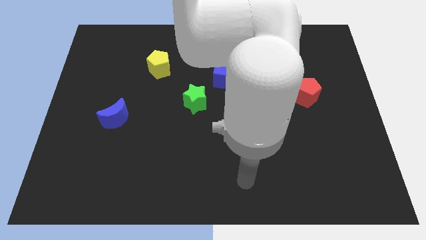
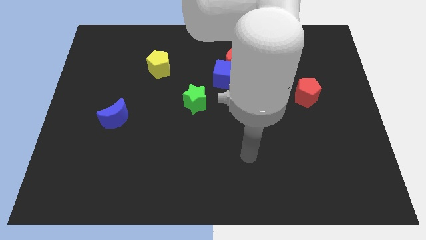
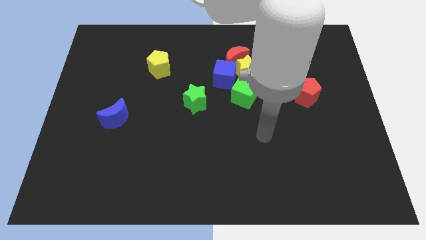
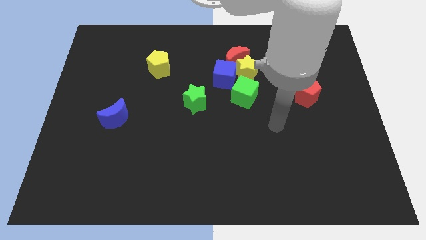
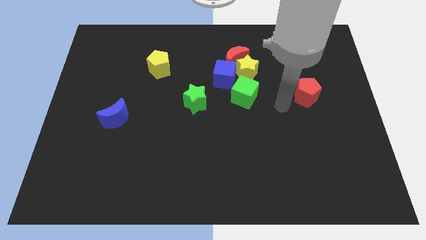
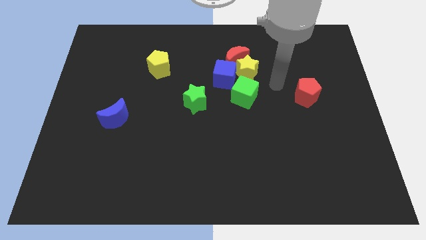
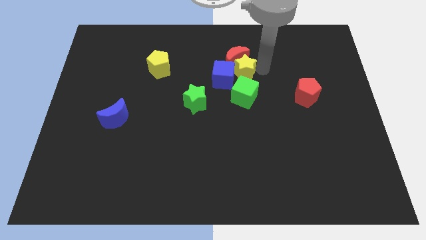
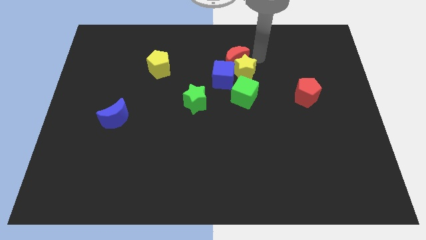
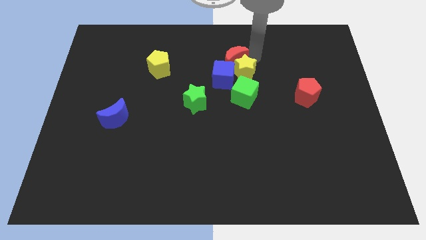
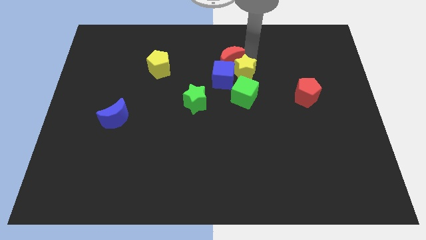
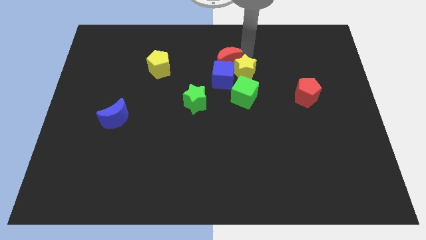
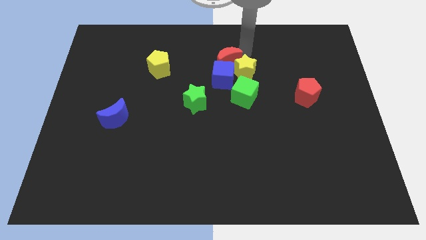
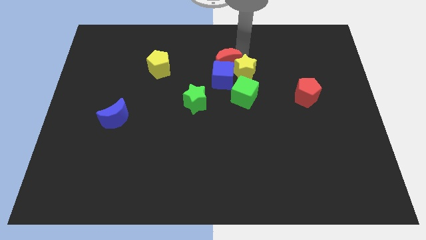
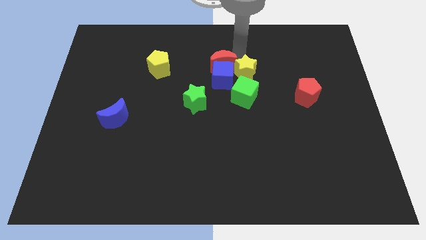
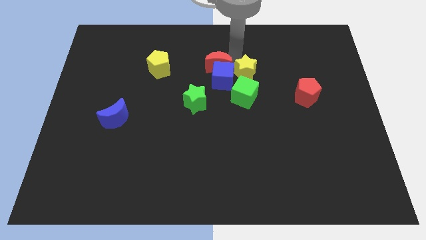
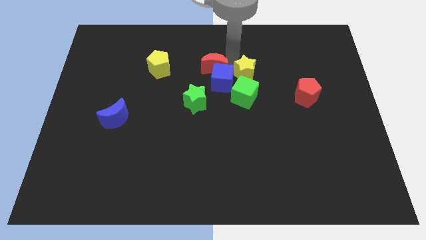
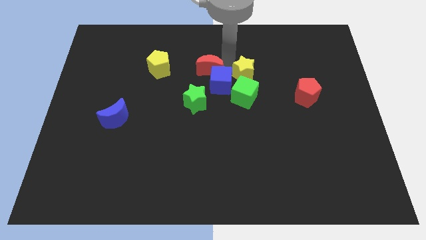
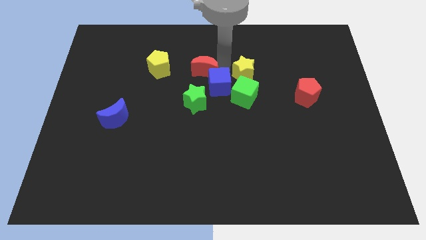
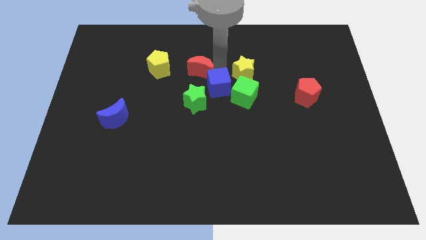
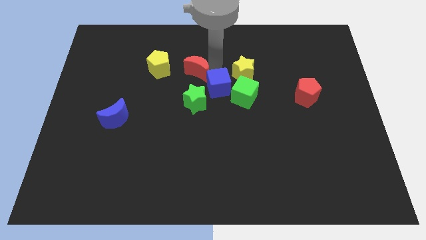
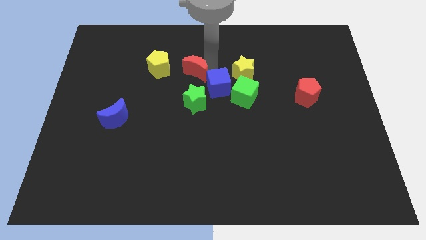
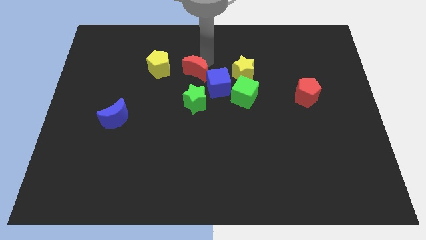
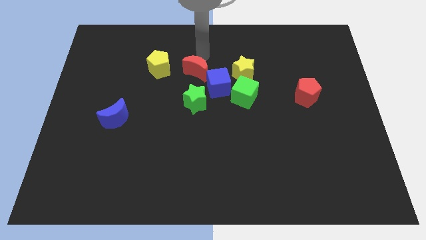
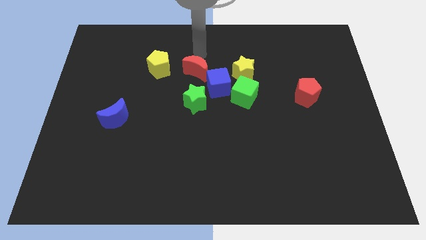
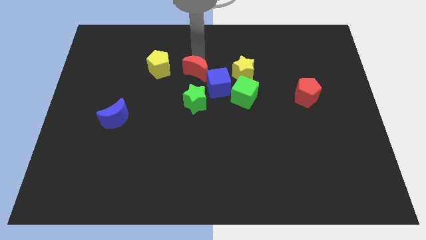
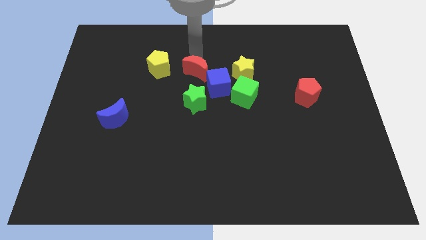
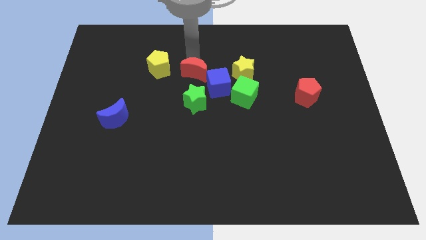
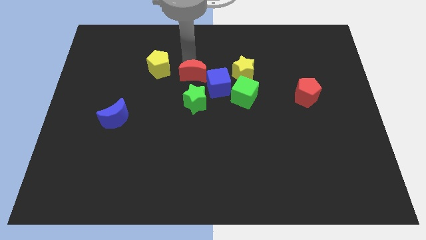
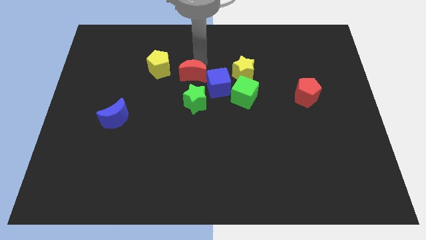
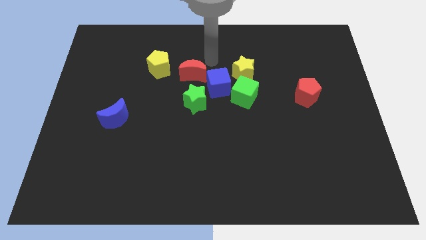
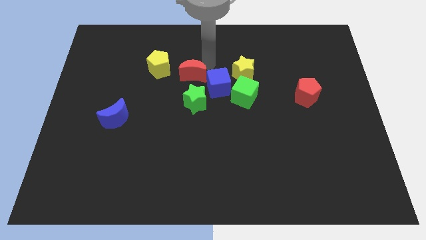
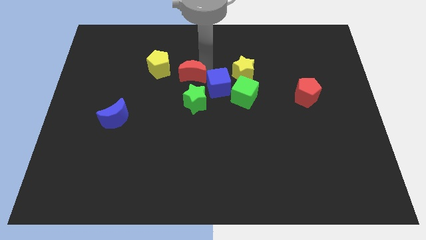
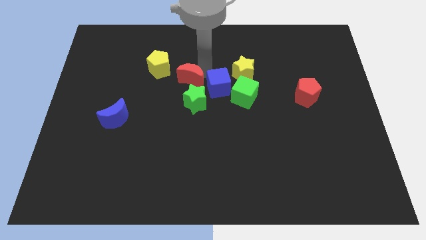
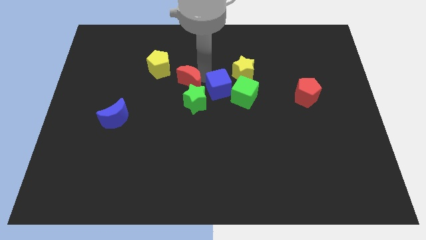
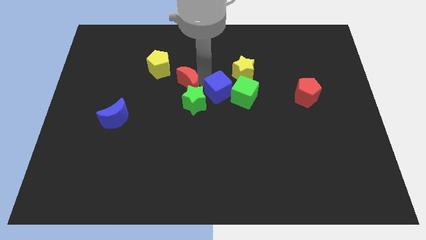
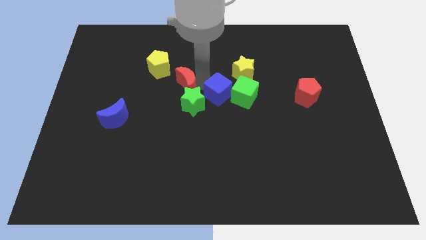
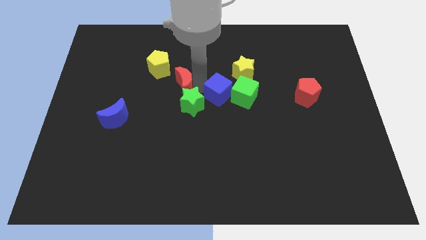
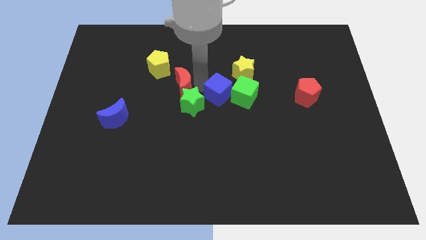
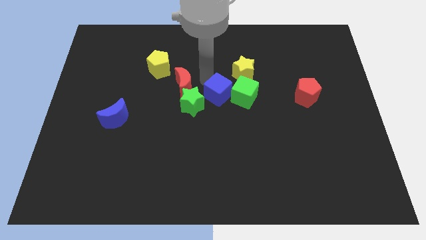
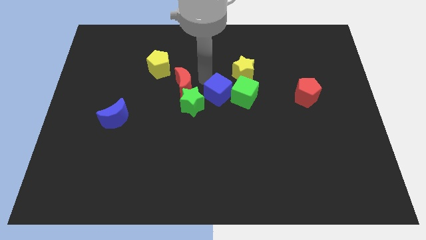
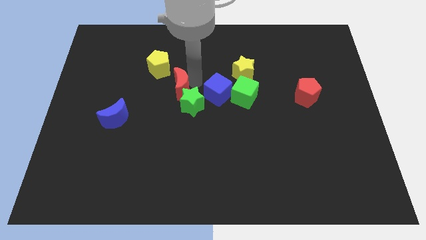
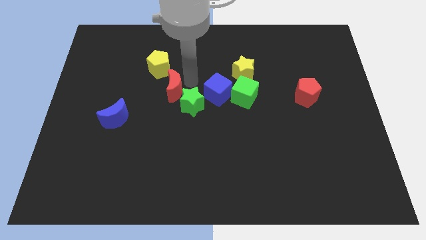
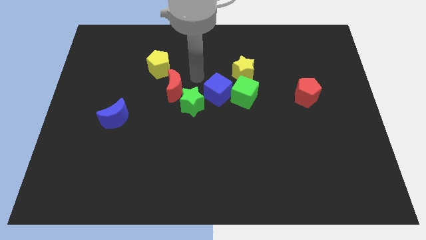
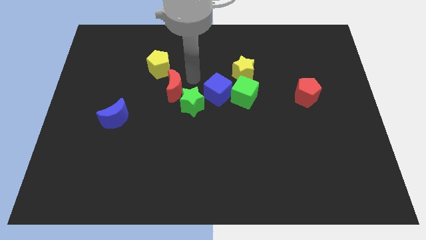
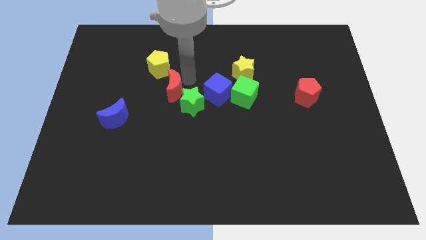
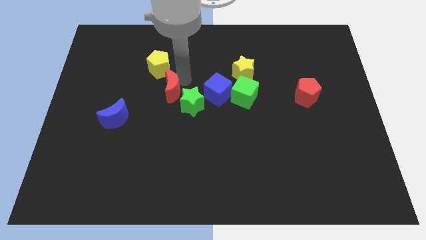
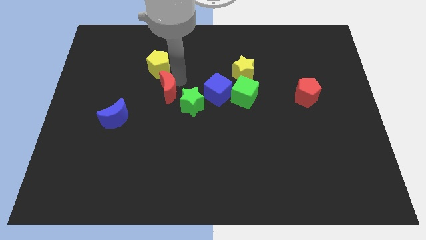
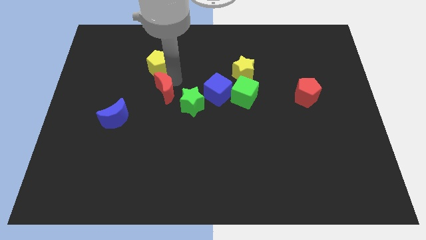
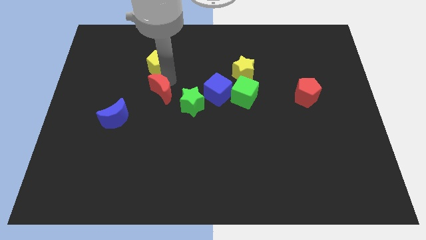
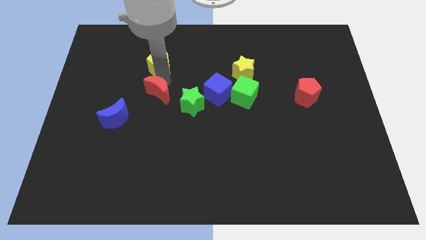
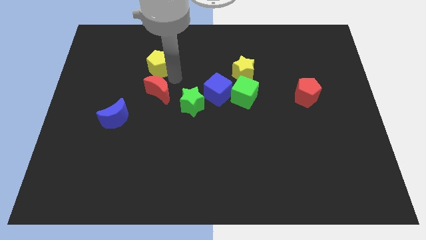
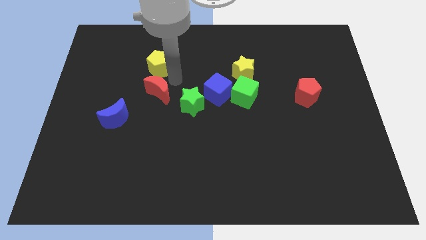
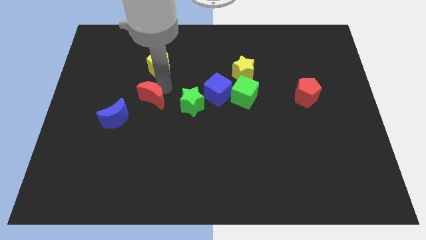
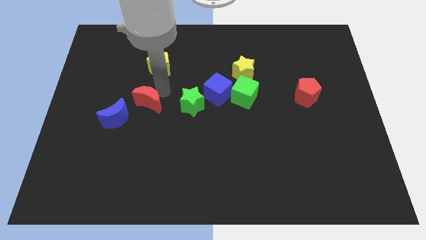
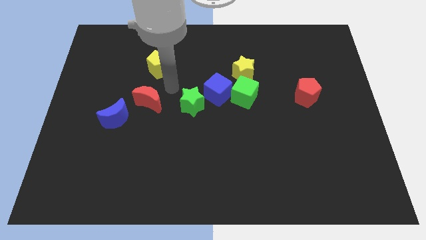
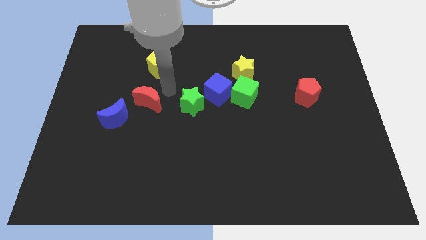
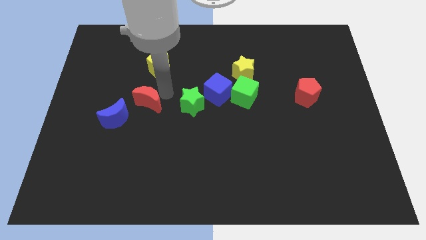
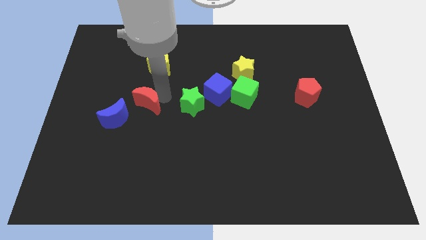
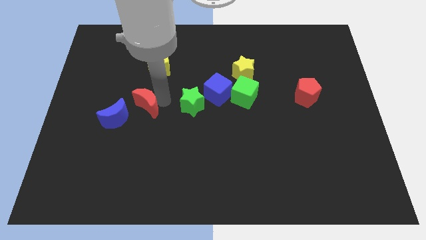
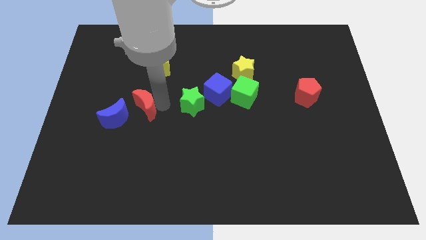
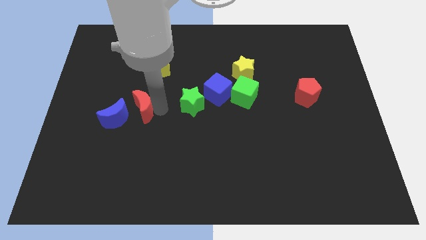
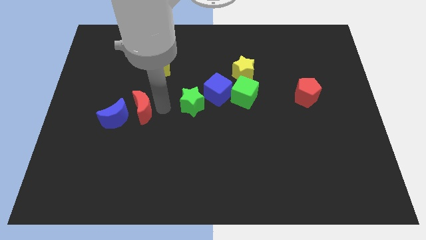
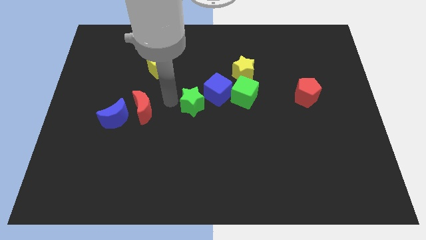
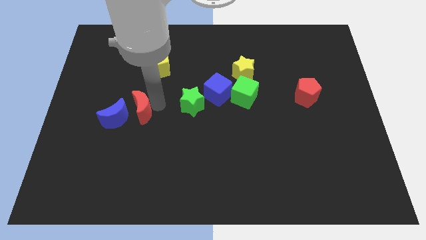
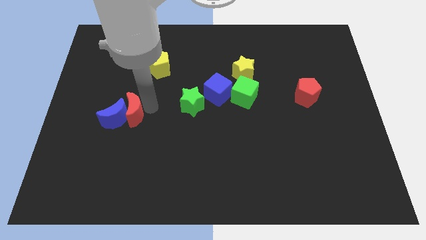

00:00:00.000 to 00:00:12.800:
slide the red moon towards the blue moon

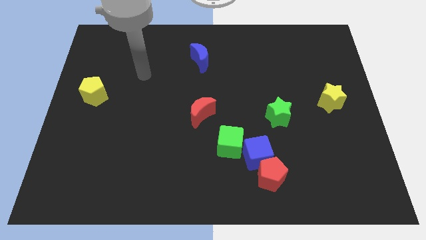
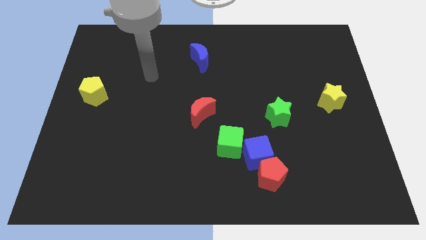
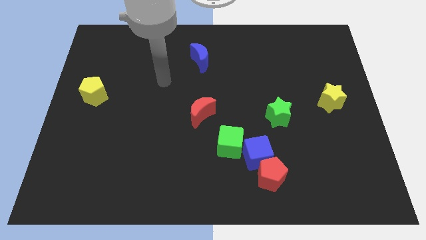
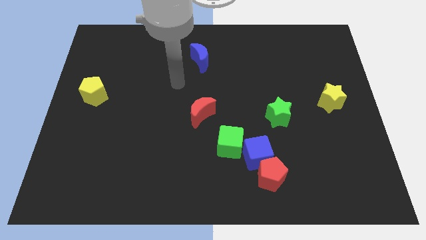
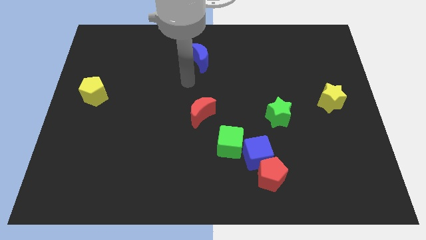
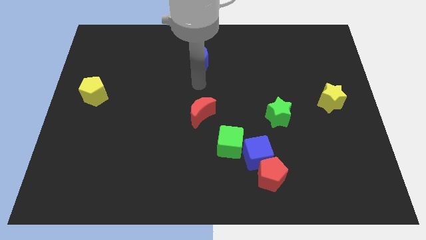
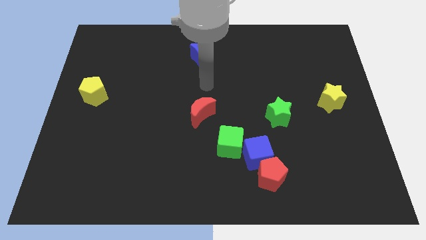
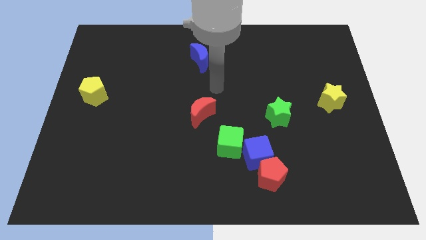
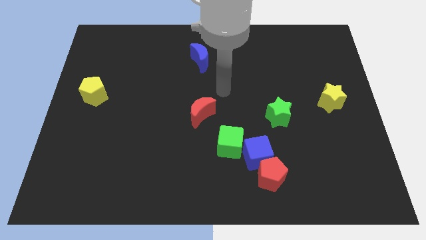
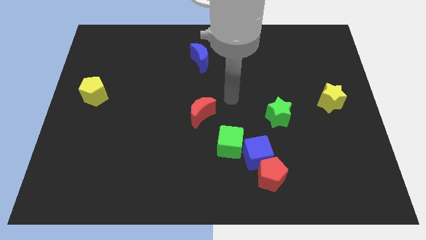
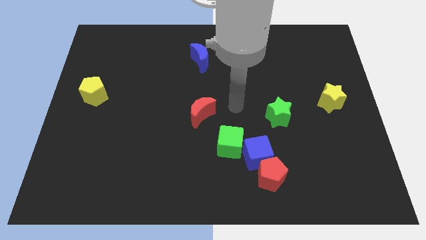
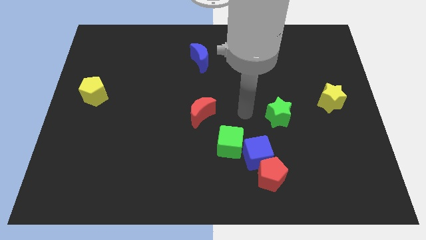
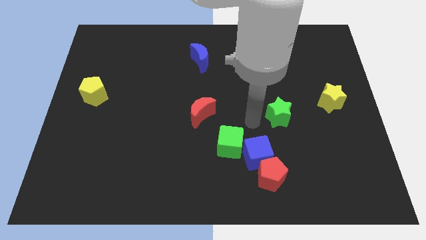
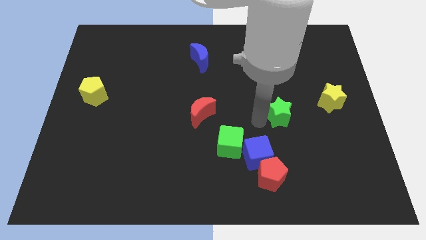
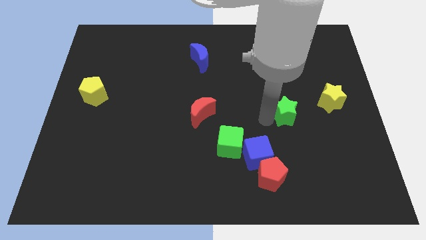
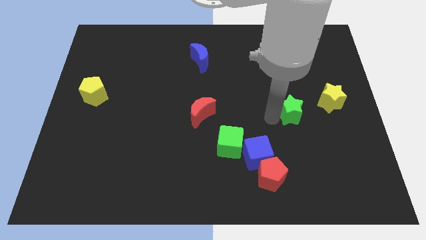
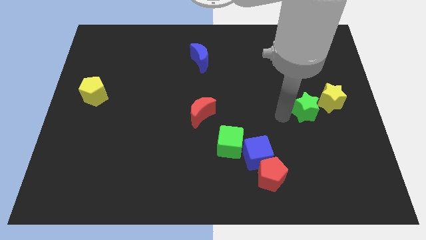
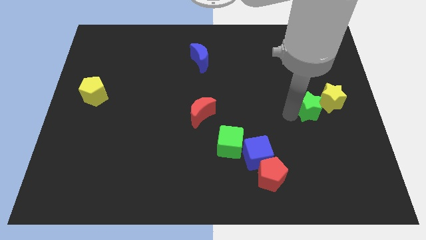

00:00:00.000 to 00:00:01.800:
slide the green star towards the yellow star
